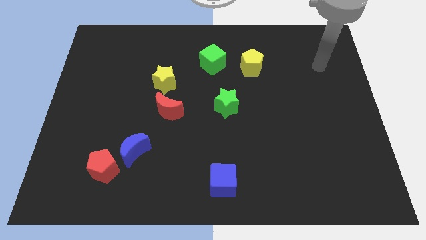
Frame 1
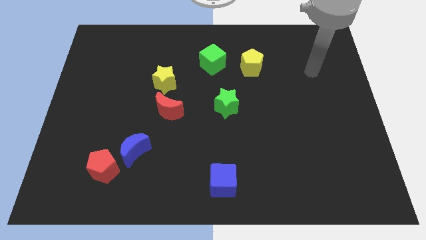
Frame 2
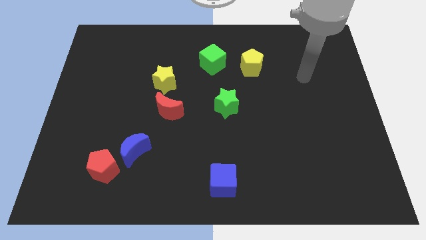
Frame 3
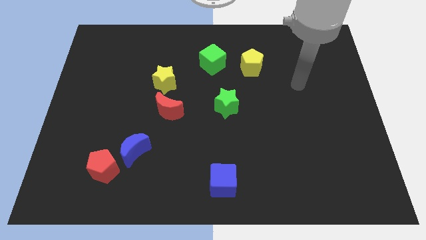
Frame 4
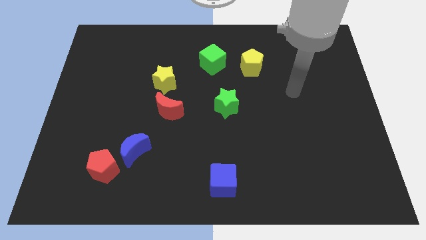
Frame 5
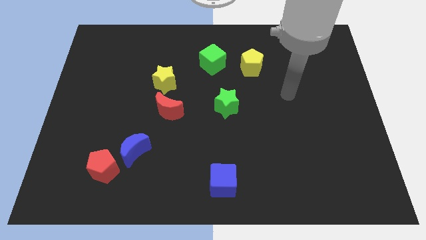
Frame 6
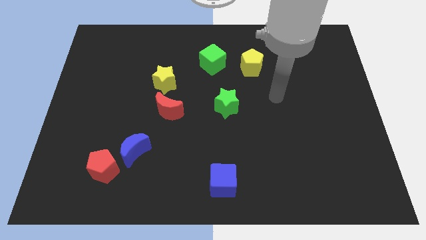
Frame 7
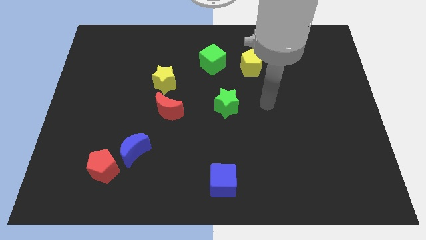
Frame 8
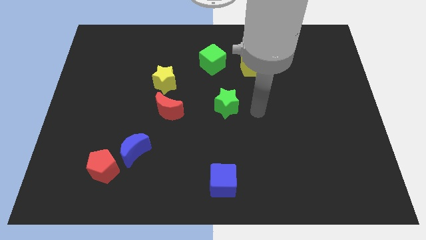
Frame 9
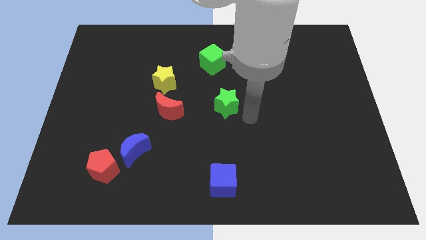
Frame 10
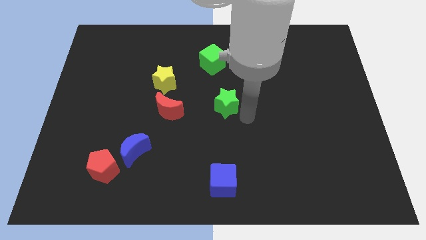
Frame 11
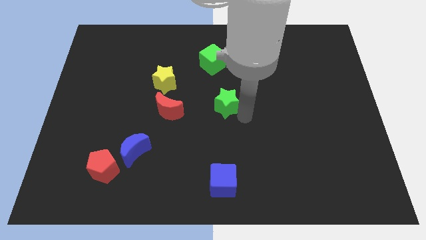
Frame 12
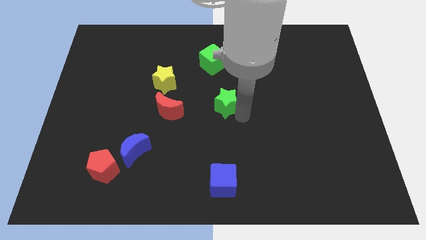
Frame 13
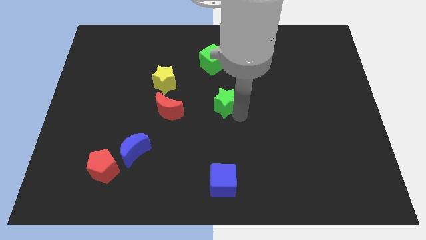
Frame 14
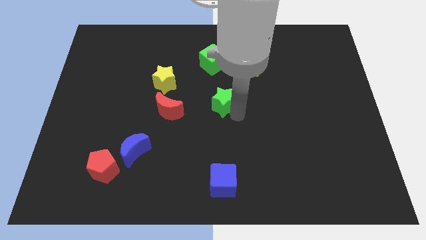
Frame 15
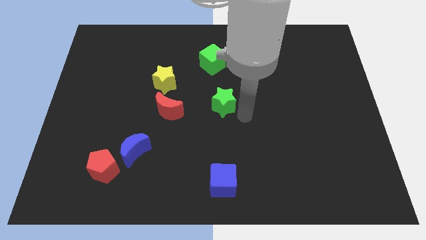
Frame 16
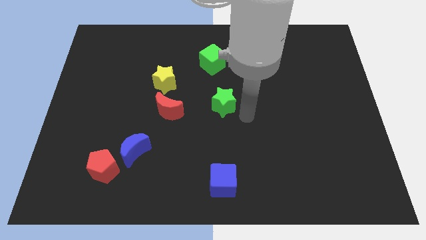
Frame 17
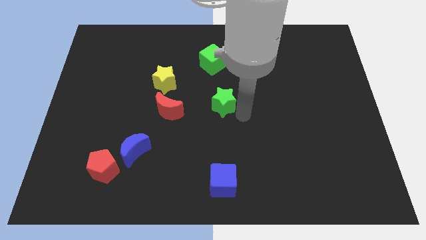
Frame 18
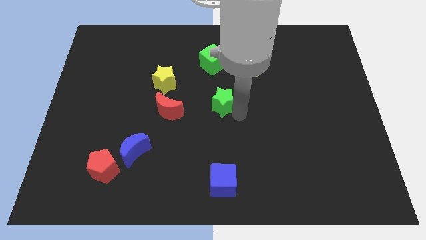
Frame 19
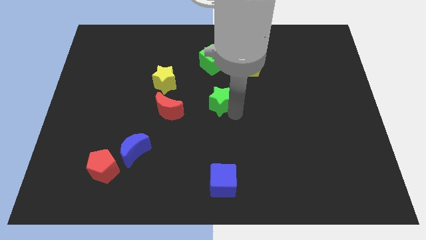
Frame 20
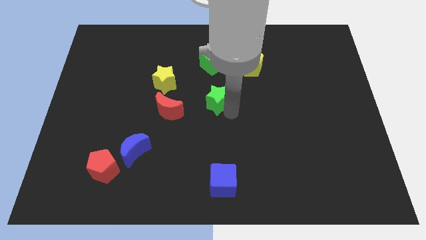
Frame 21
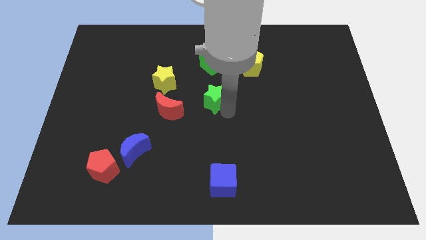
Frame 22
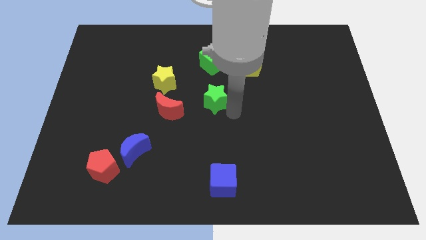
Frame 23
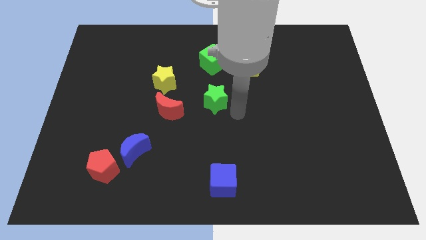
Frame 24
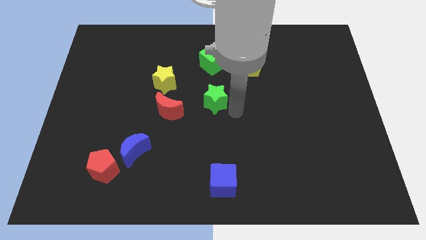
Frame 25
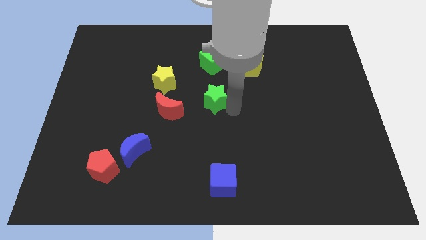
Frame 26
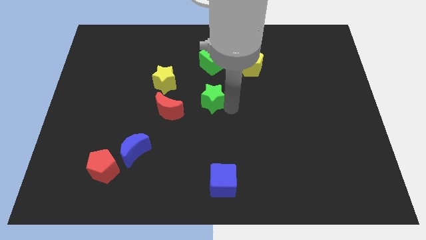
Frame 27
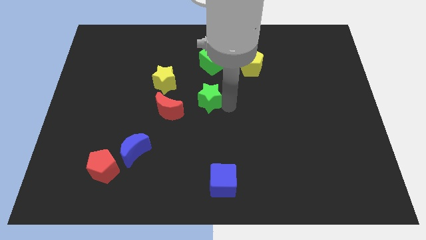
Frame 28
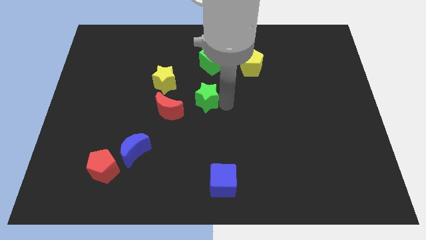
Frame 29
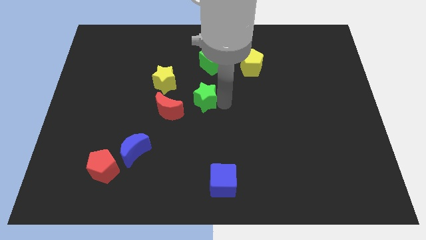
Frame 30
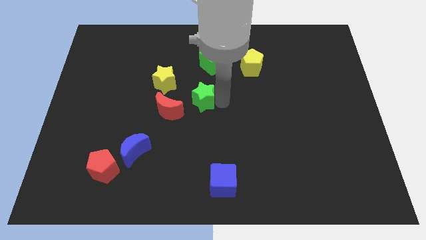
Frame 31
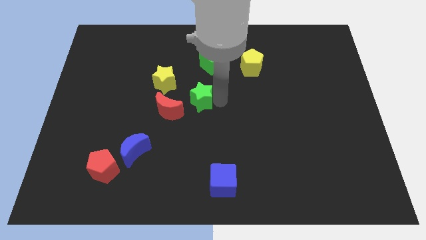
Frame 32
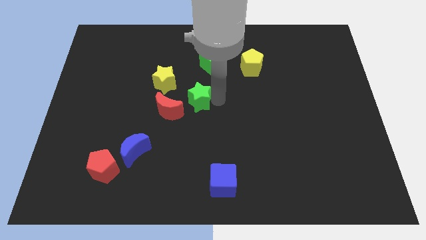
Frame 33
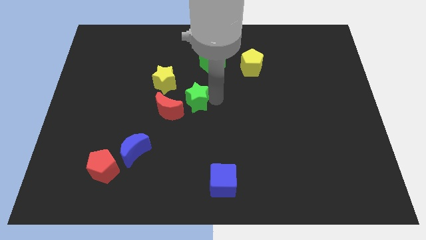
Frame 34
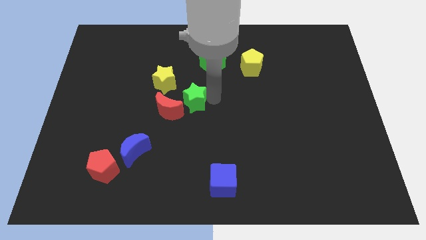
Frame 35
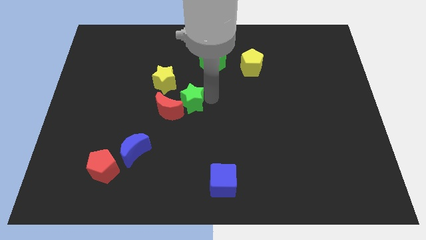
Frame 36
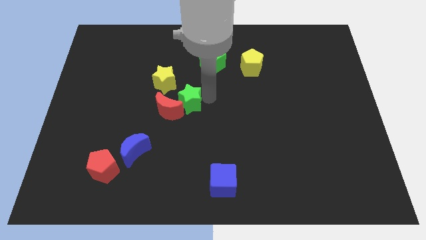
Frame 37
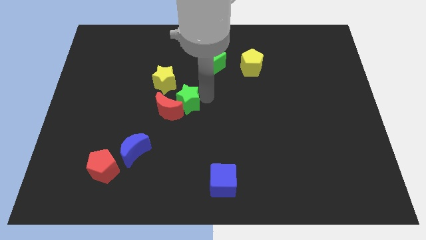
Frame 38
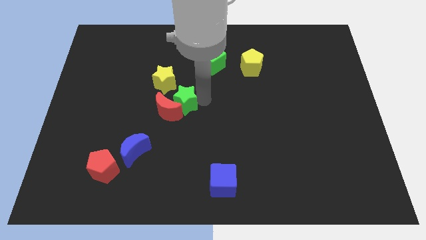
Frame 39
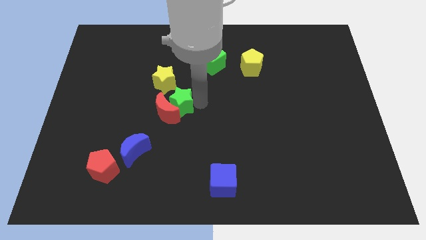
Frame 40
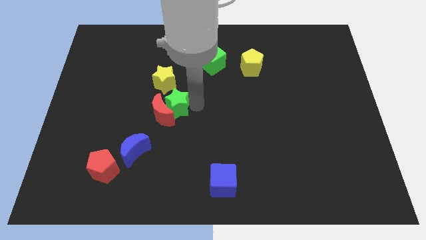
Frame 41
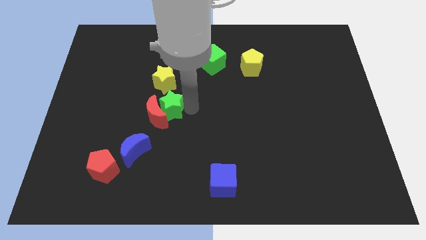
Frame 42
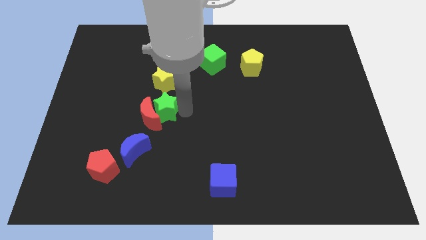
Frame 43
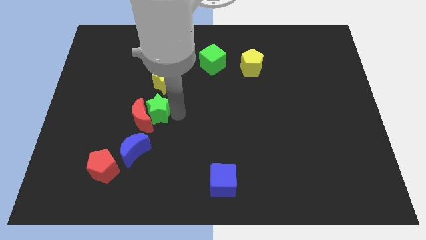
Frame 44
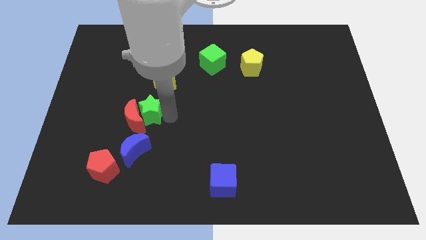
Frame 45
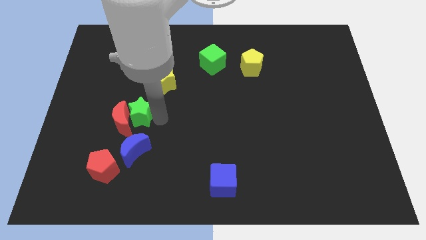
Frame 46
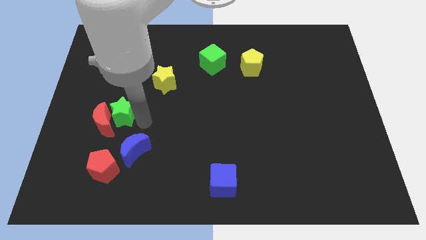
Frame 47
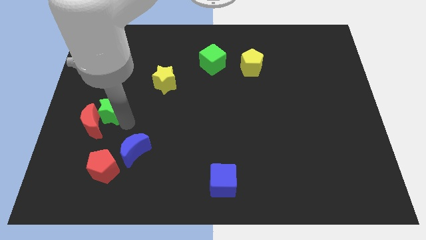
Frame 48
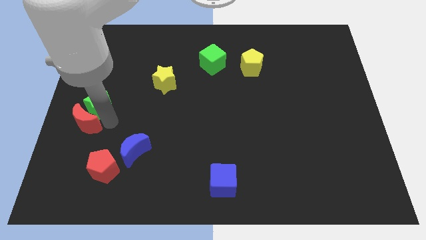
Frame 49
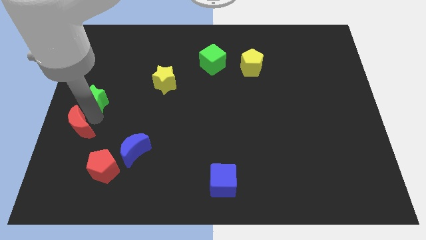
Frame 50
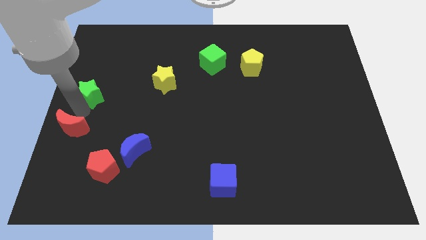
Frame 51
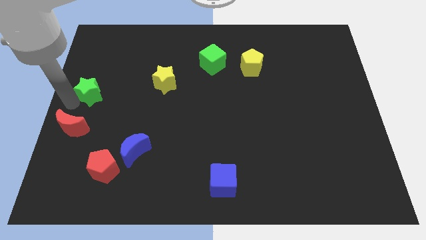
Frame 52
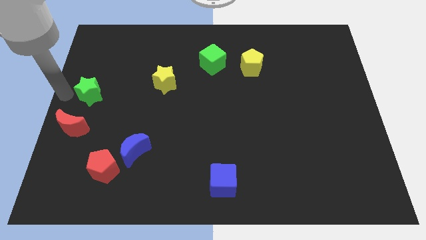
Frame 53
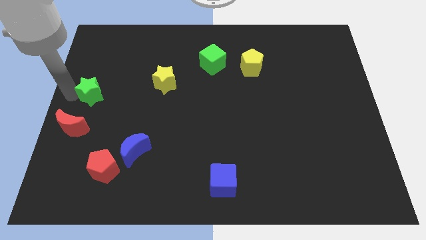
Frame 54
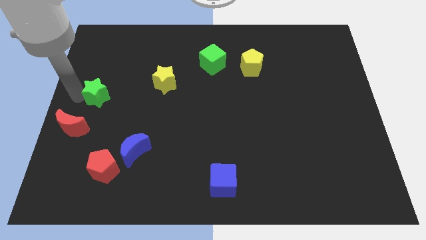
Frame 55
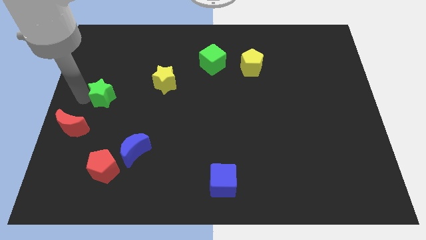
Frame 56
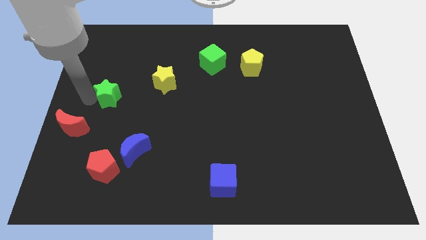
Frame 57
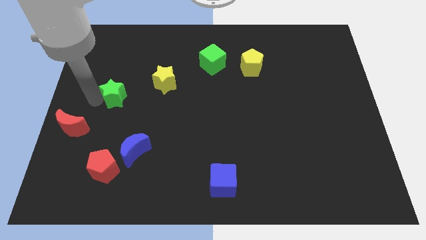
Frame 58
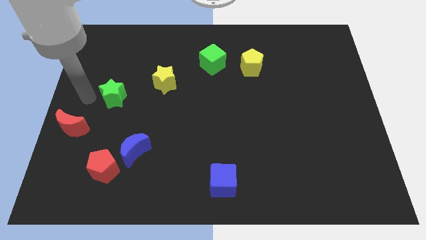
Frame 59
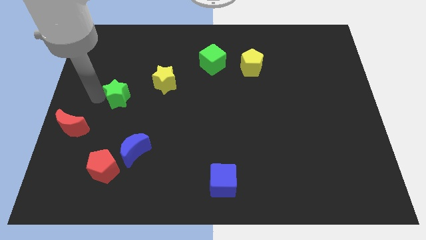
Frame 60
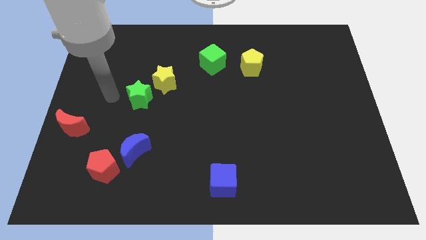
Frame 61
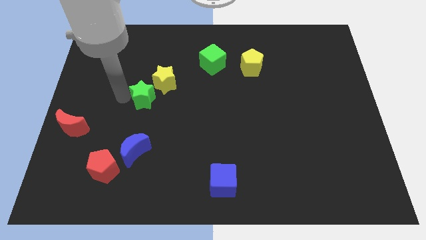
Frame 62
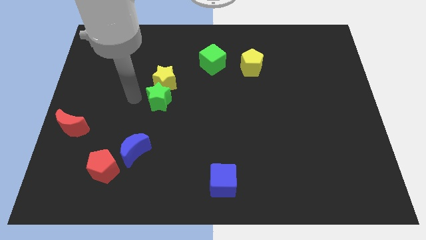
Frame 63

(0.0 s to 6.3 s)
move the green star towards the yellow star
